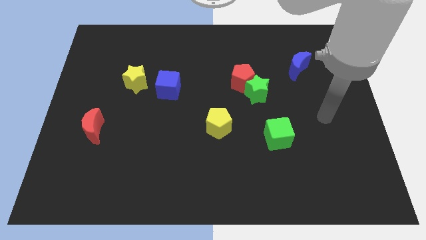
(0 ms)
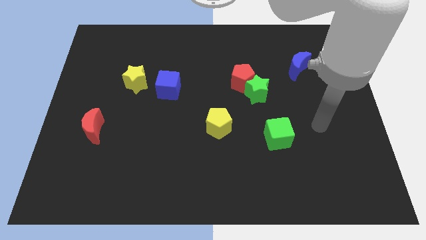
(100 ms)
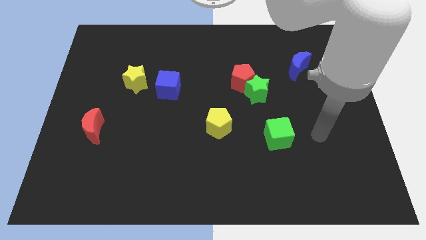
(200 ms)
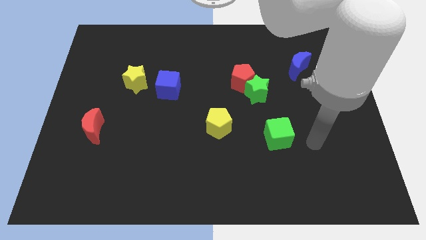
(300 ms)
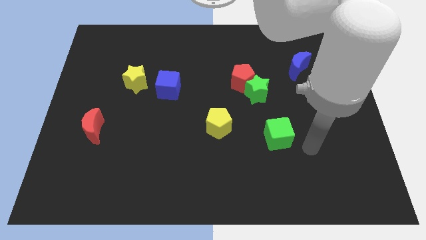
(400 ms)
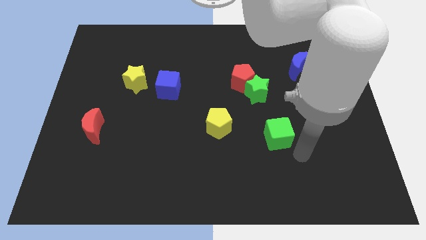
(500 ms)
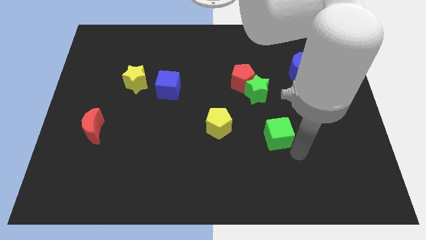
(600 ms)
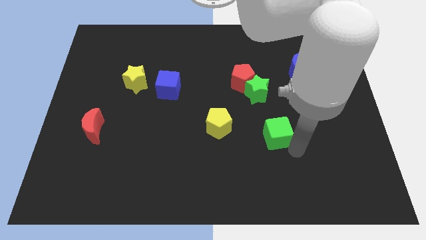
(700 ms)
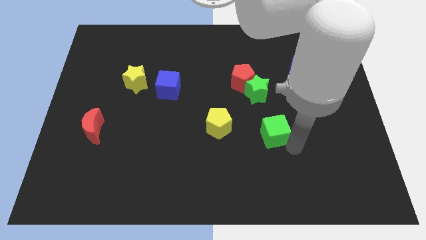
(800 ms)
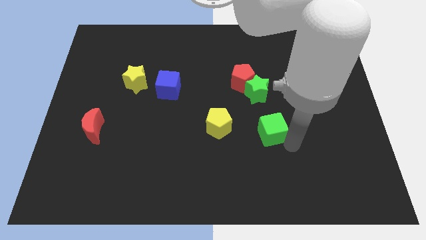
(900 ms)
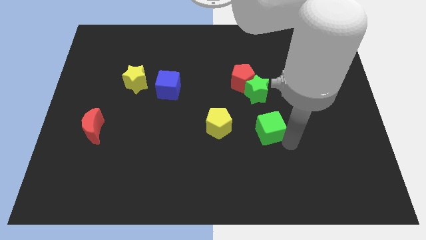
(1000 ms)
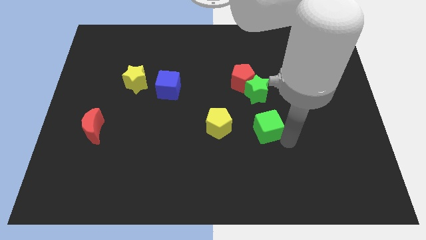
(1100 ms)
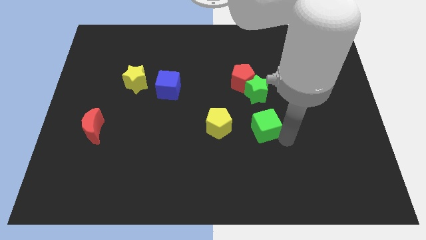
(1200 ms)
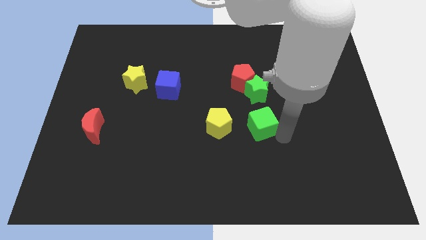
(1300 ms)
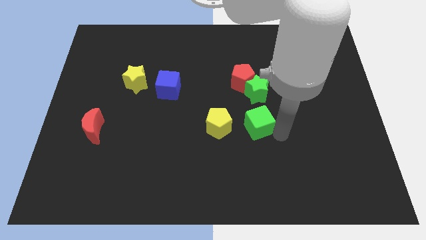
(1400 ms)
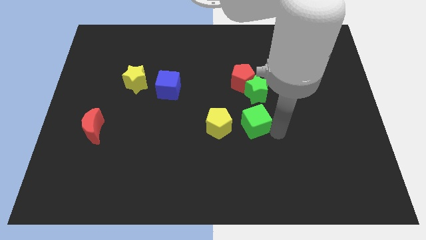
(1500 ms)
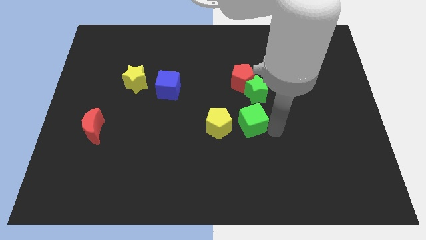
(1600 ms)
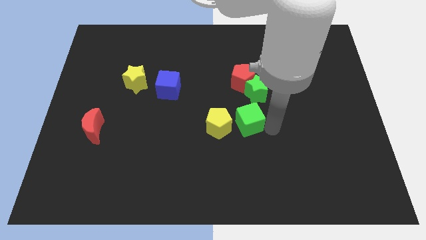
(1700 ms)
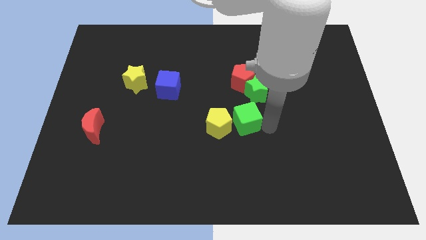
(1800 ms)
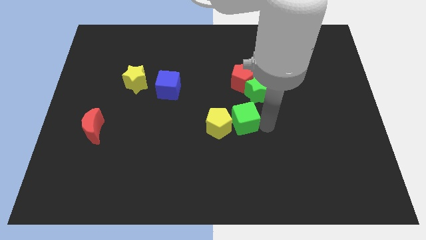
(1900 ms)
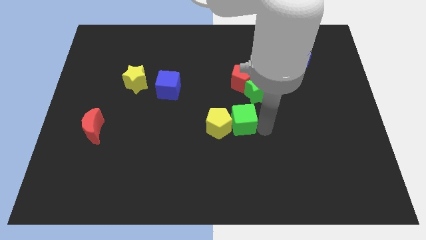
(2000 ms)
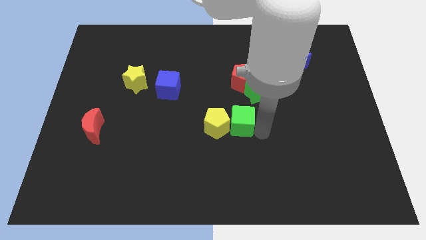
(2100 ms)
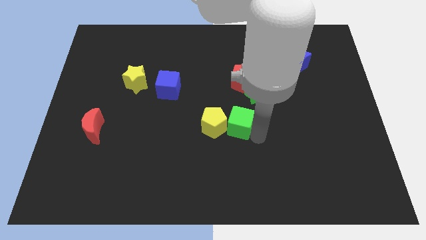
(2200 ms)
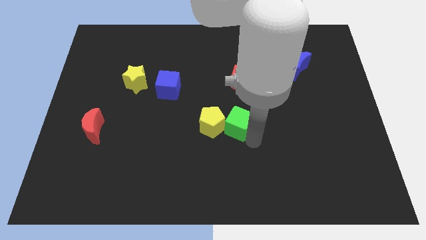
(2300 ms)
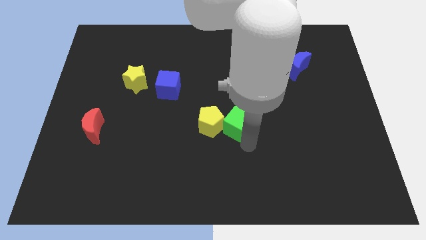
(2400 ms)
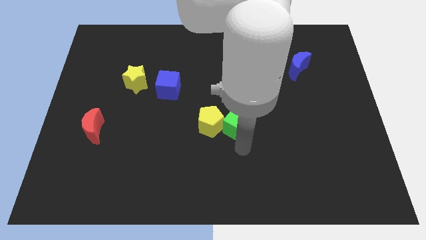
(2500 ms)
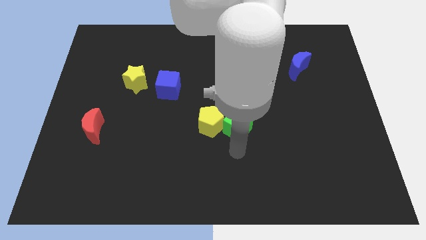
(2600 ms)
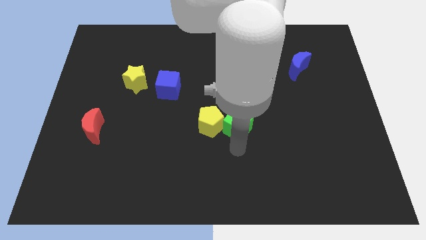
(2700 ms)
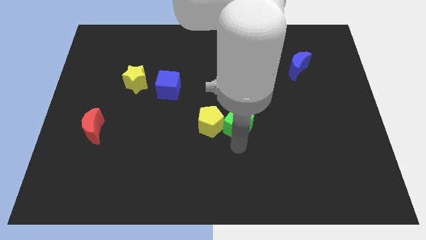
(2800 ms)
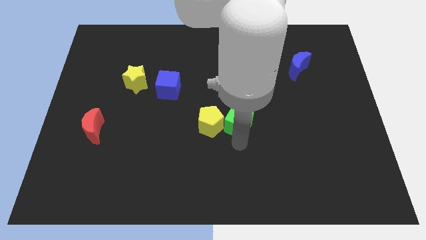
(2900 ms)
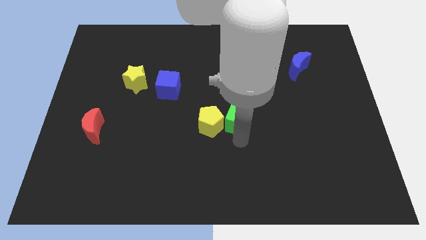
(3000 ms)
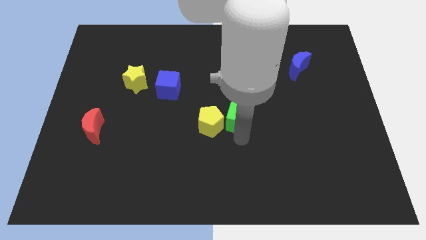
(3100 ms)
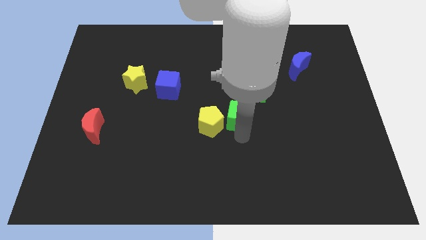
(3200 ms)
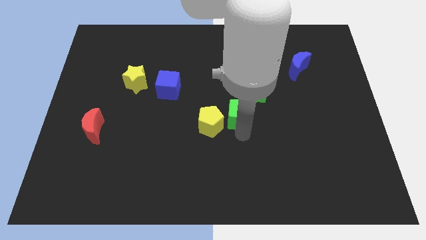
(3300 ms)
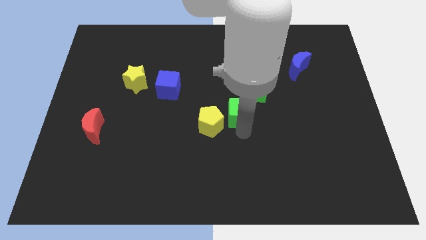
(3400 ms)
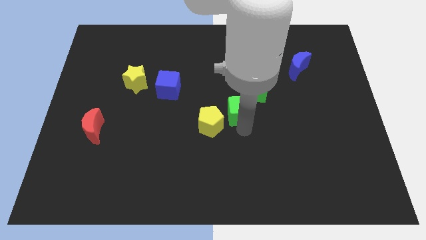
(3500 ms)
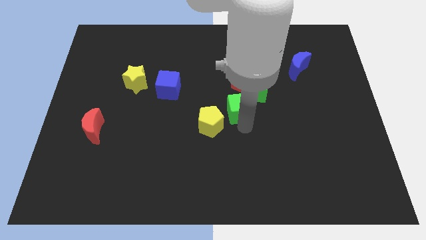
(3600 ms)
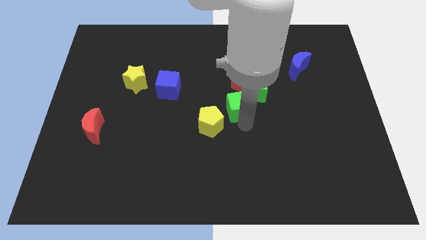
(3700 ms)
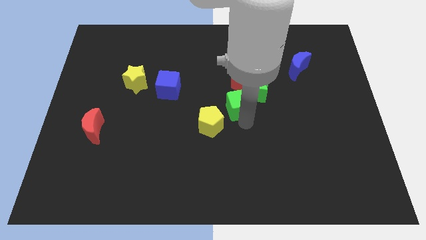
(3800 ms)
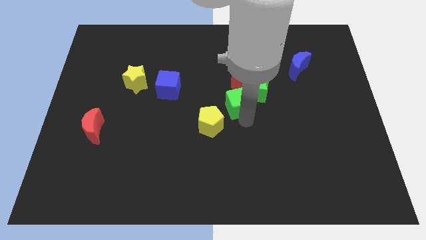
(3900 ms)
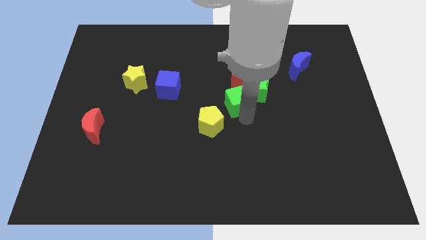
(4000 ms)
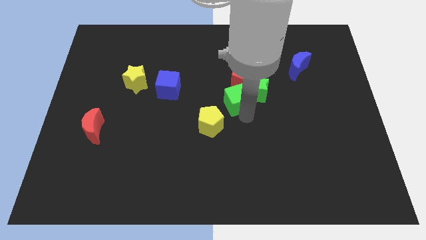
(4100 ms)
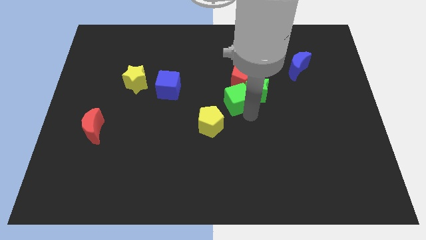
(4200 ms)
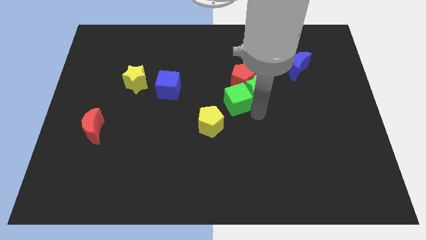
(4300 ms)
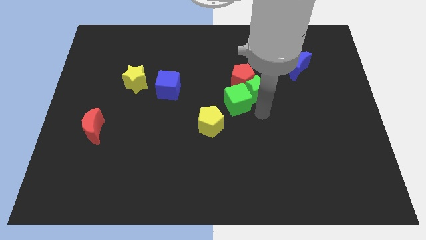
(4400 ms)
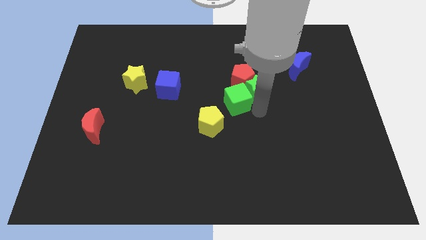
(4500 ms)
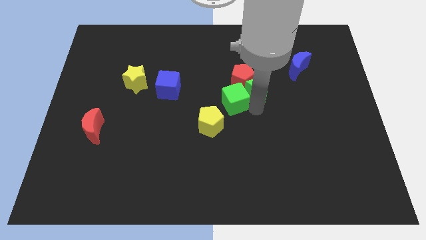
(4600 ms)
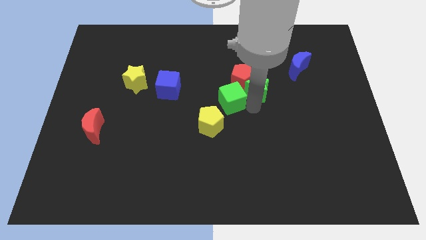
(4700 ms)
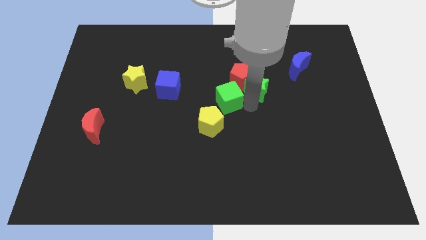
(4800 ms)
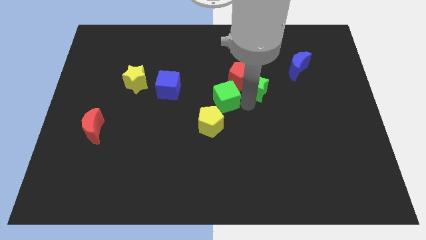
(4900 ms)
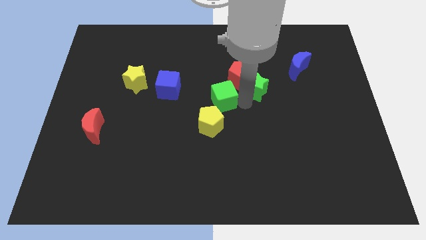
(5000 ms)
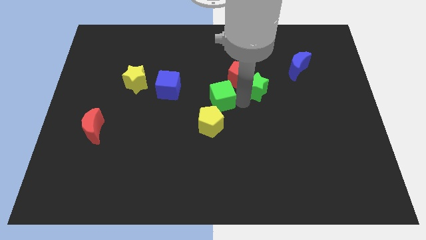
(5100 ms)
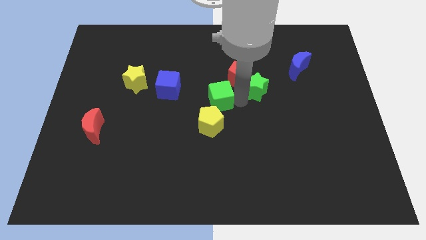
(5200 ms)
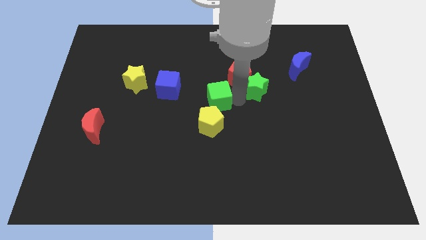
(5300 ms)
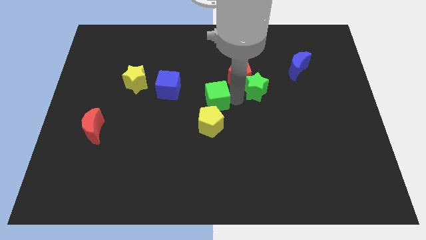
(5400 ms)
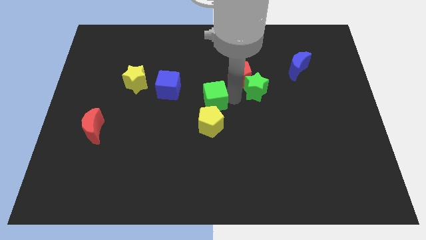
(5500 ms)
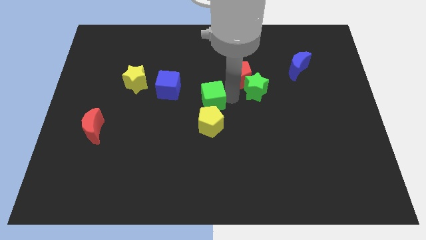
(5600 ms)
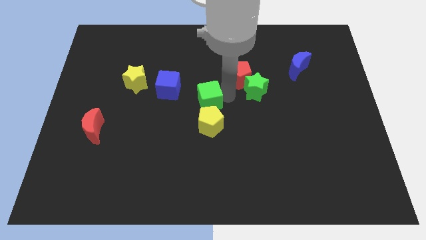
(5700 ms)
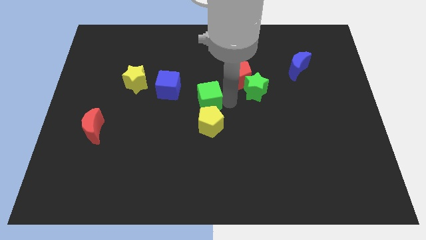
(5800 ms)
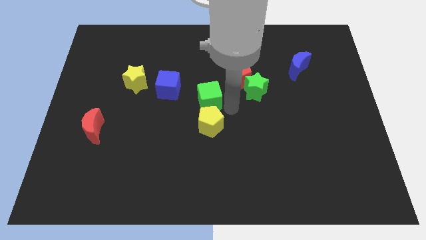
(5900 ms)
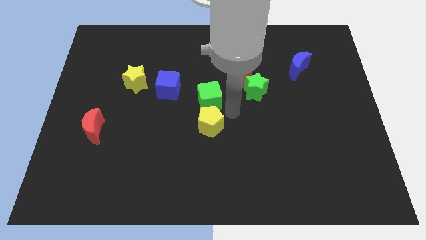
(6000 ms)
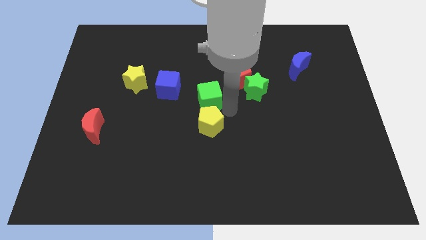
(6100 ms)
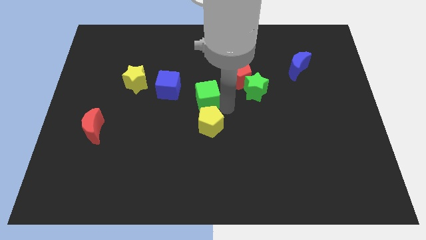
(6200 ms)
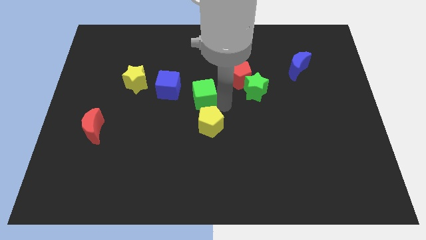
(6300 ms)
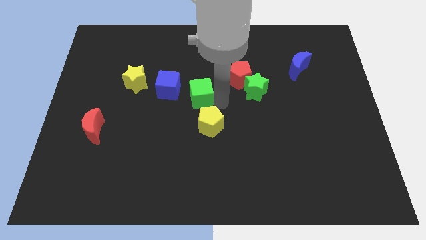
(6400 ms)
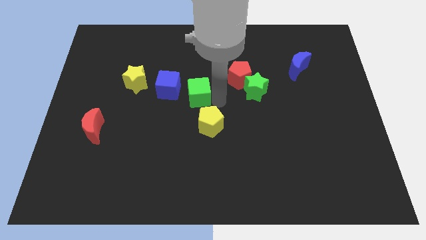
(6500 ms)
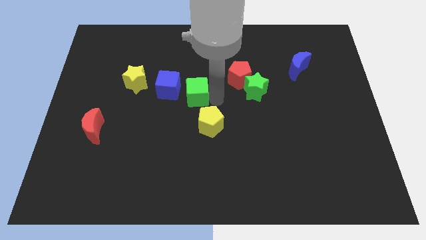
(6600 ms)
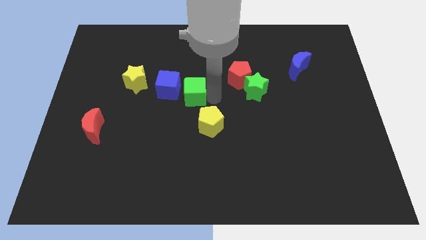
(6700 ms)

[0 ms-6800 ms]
move the green cube to the right of the yellow star

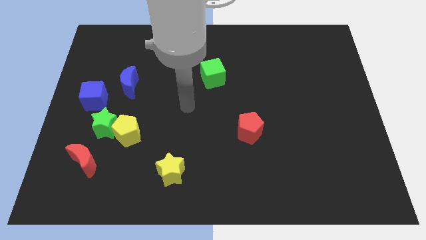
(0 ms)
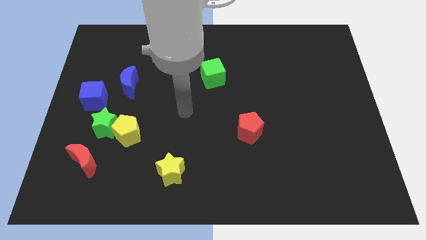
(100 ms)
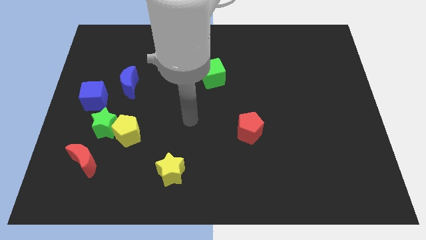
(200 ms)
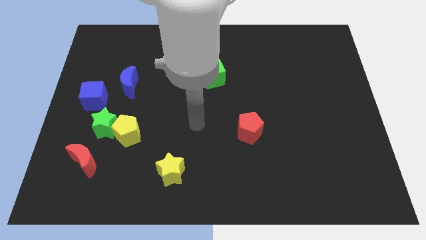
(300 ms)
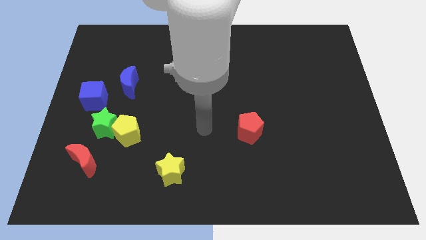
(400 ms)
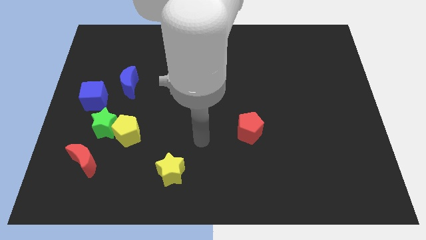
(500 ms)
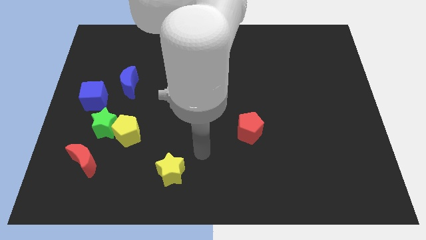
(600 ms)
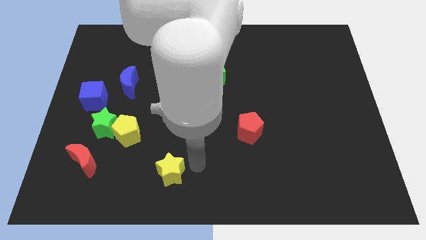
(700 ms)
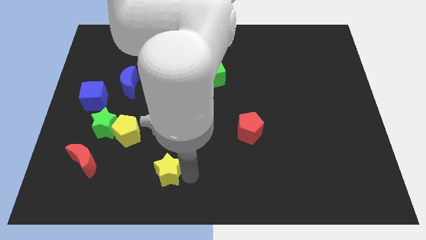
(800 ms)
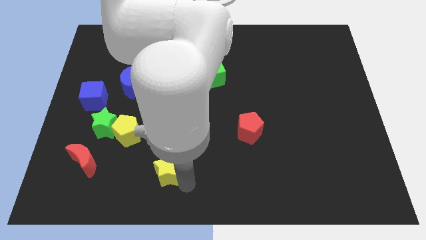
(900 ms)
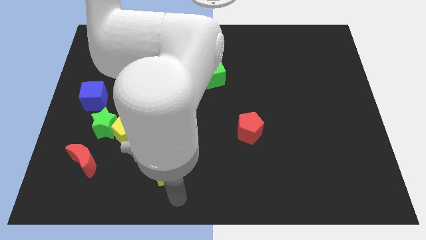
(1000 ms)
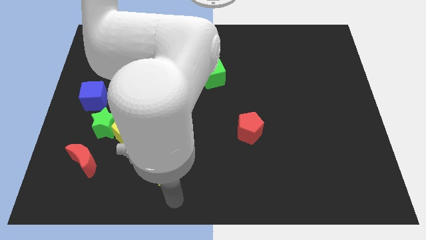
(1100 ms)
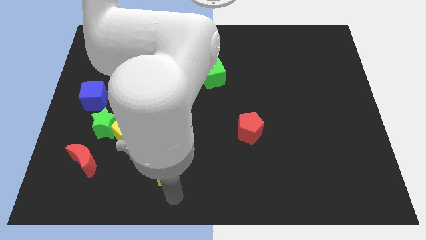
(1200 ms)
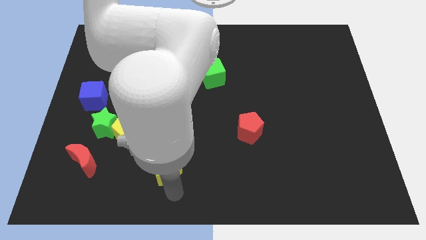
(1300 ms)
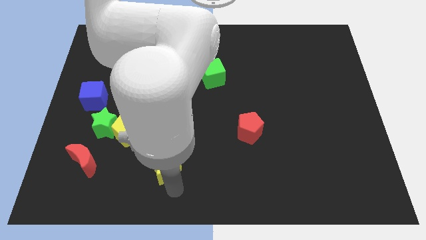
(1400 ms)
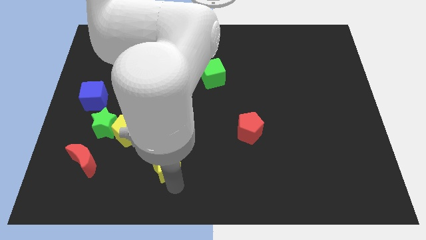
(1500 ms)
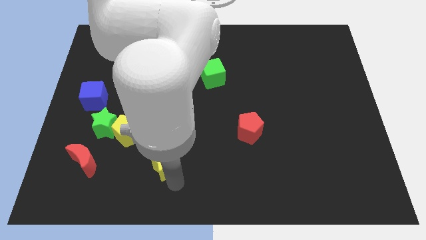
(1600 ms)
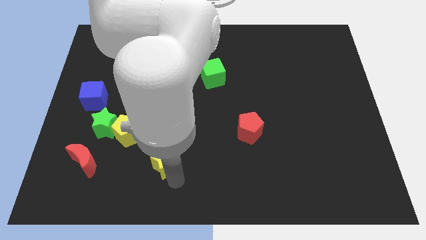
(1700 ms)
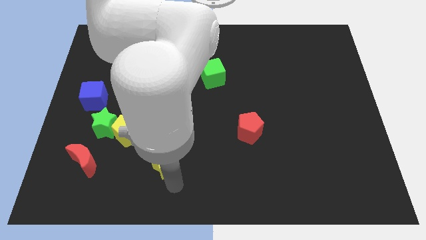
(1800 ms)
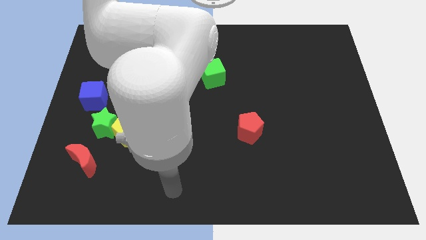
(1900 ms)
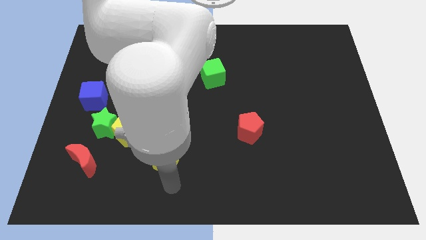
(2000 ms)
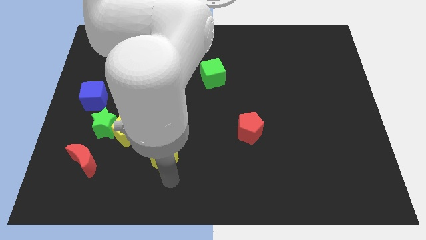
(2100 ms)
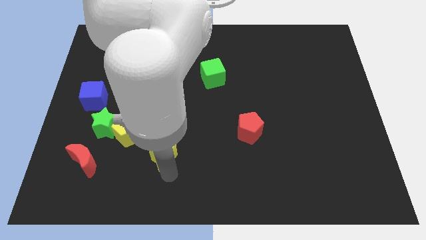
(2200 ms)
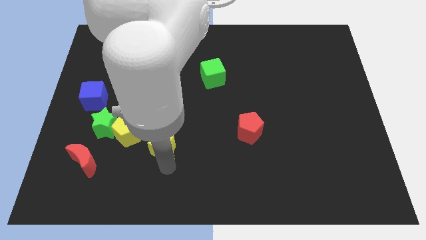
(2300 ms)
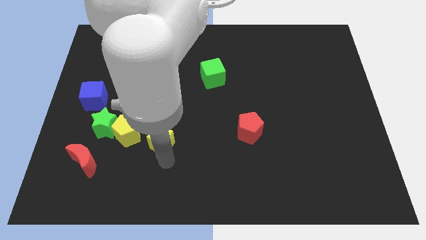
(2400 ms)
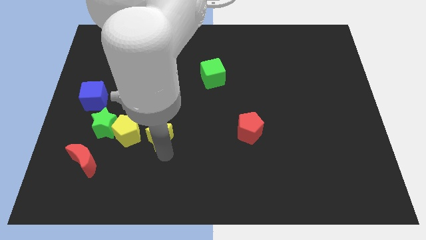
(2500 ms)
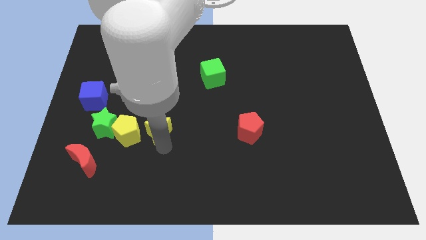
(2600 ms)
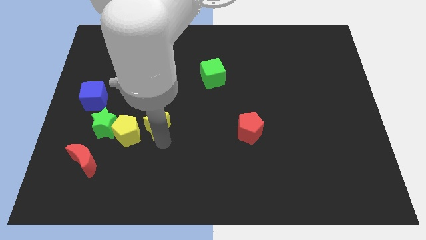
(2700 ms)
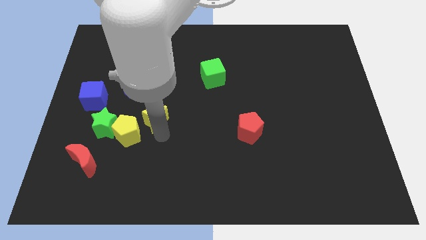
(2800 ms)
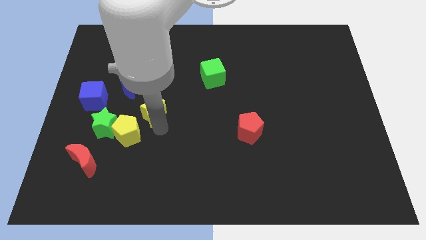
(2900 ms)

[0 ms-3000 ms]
push the yellow star to the bottom right of the blue moon
